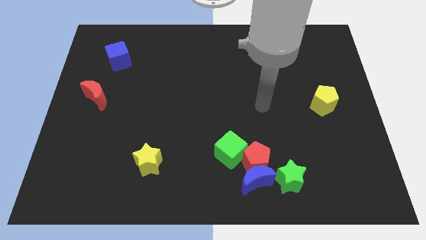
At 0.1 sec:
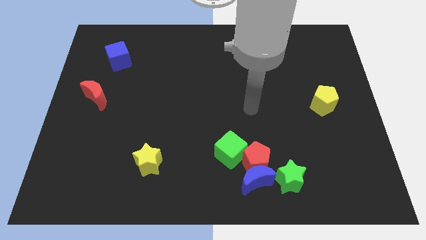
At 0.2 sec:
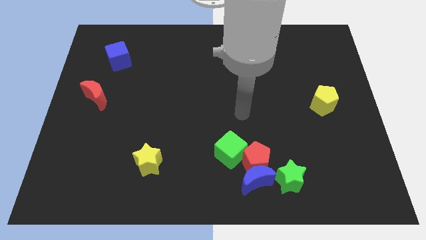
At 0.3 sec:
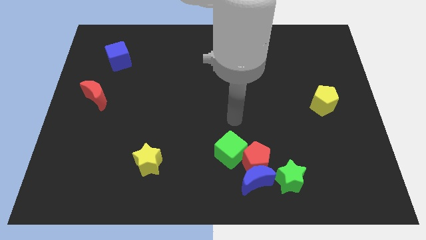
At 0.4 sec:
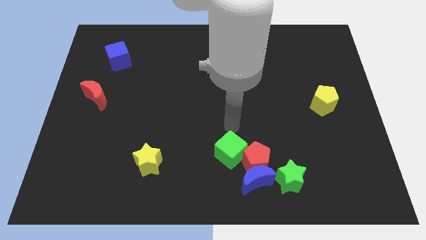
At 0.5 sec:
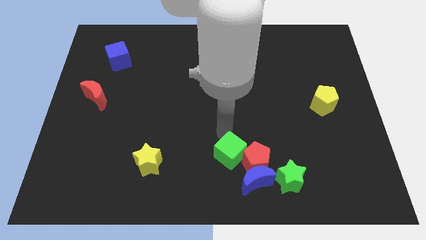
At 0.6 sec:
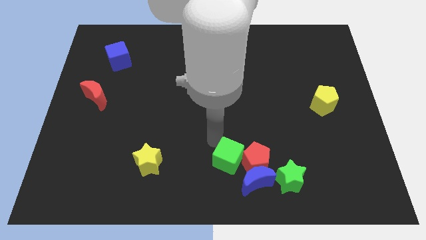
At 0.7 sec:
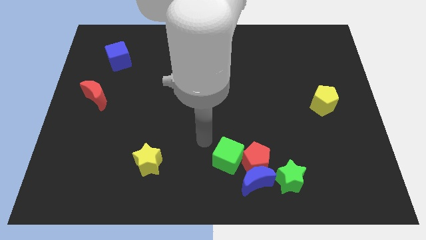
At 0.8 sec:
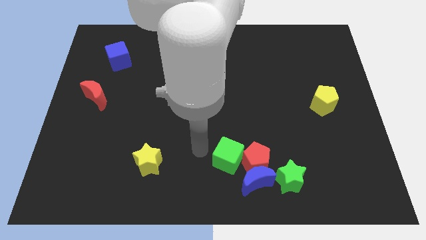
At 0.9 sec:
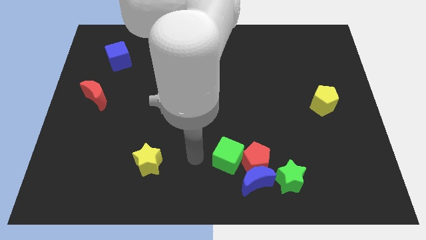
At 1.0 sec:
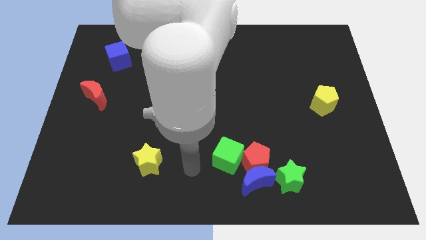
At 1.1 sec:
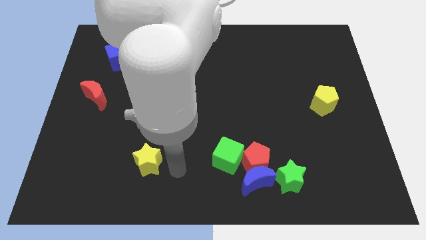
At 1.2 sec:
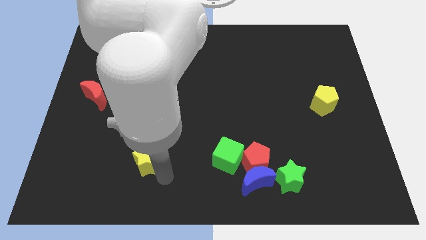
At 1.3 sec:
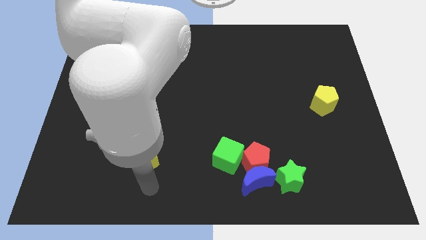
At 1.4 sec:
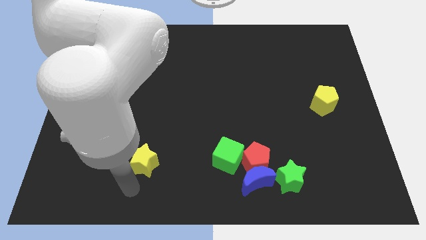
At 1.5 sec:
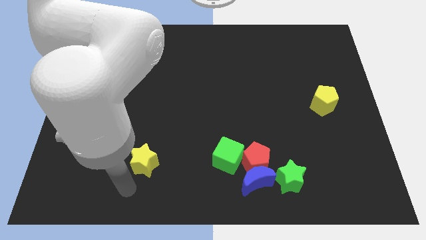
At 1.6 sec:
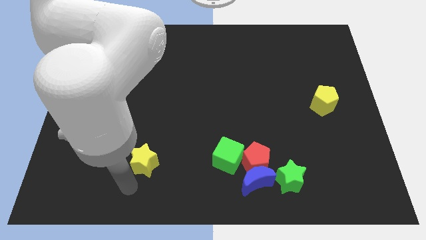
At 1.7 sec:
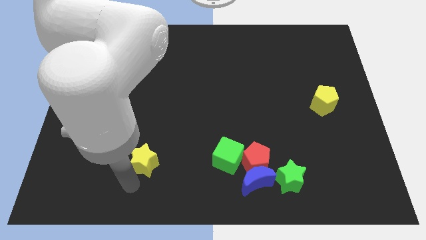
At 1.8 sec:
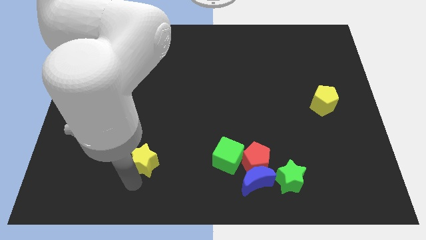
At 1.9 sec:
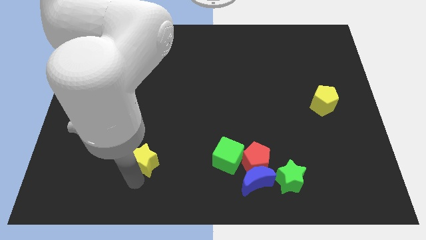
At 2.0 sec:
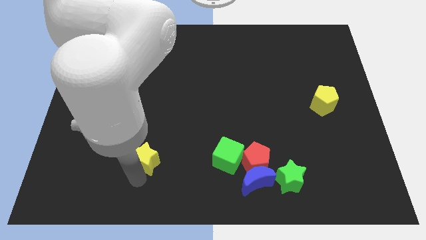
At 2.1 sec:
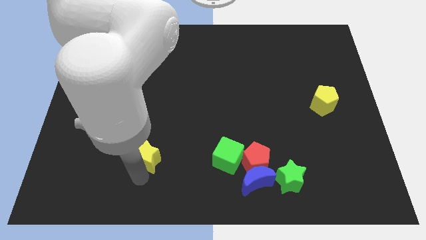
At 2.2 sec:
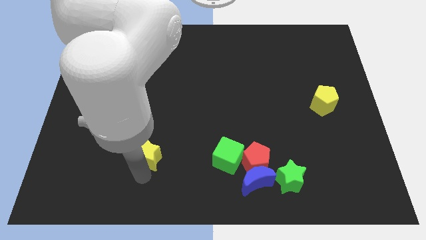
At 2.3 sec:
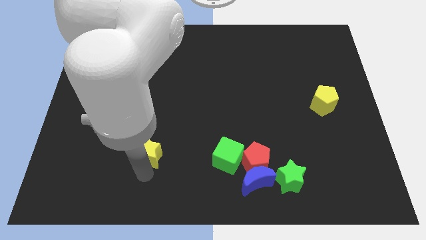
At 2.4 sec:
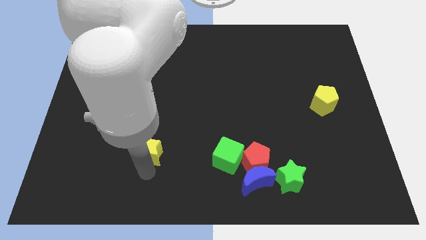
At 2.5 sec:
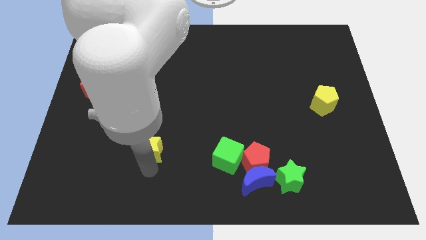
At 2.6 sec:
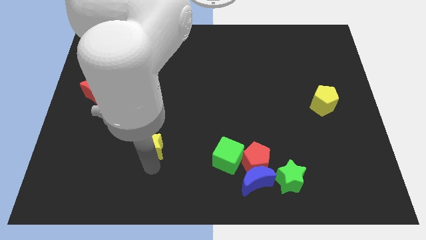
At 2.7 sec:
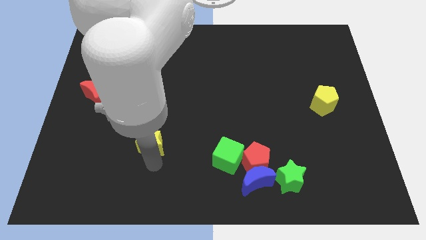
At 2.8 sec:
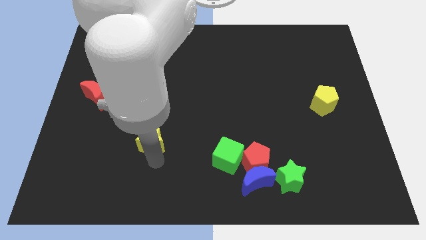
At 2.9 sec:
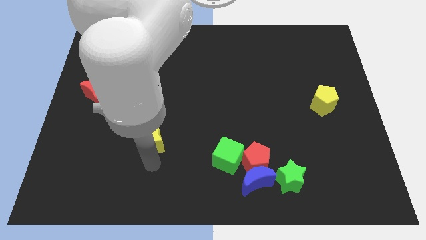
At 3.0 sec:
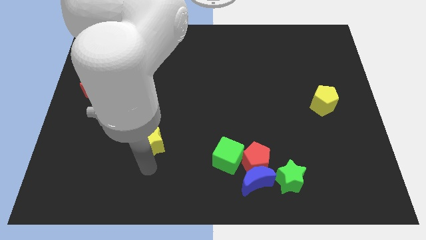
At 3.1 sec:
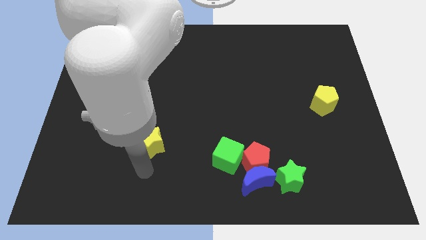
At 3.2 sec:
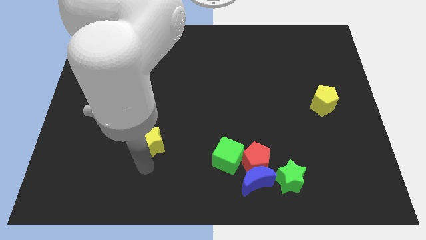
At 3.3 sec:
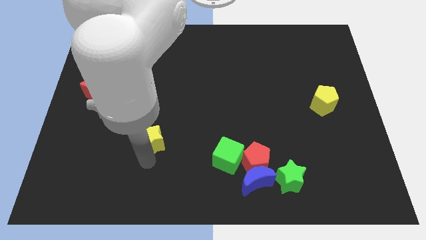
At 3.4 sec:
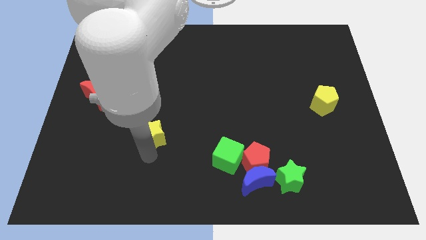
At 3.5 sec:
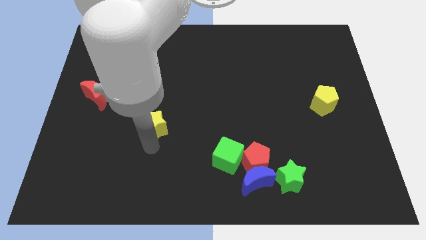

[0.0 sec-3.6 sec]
push the yellow star upwards a little bit

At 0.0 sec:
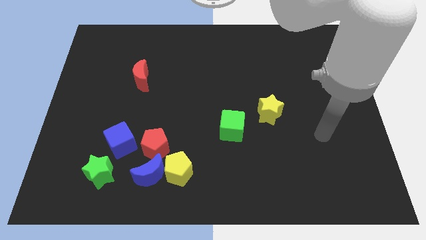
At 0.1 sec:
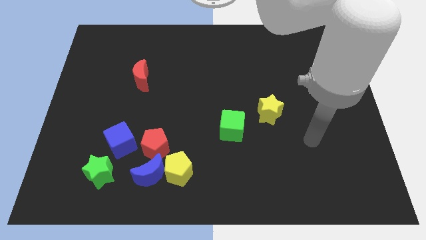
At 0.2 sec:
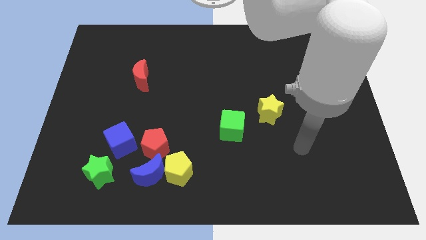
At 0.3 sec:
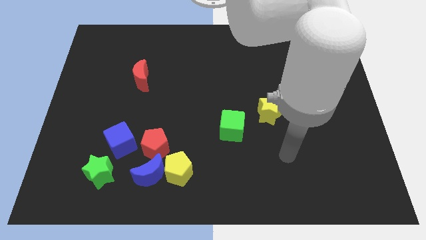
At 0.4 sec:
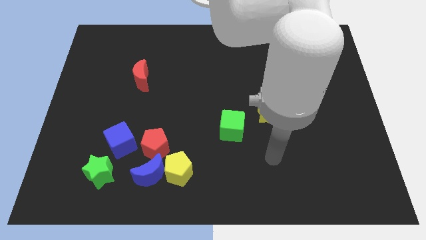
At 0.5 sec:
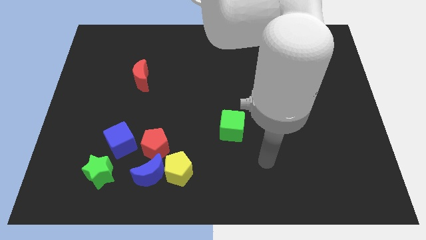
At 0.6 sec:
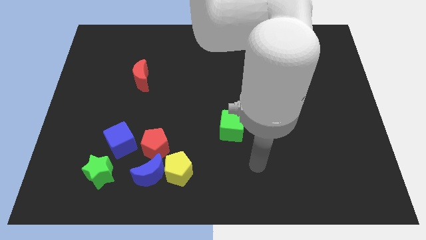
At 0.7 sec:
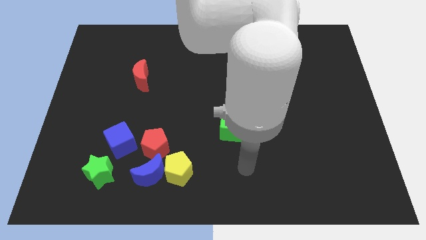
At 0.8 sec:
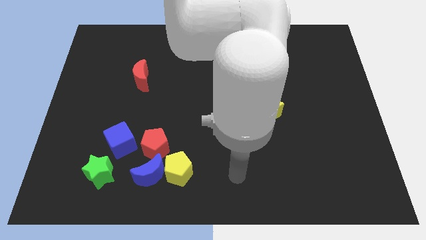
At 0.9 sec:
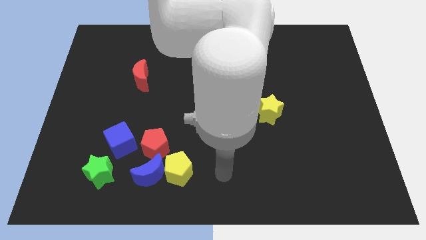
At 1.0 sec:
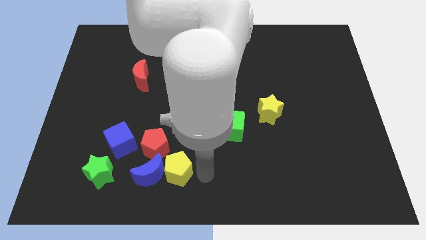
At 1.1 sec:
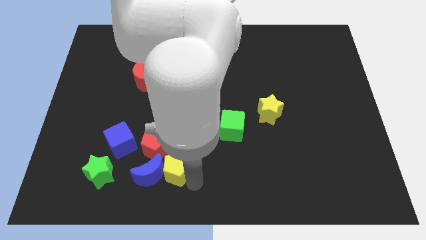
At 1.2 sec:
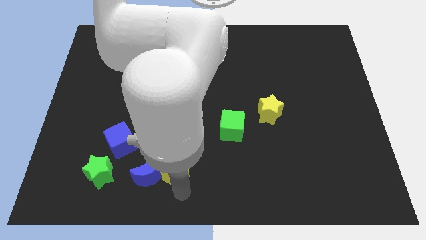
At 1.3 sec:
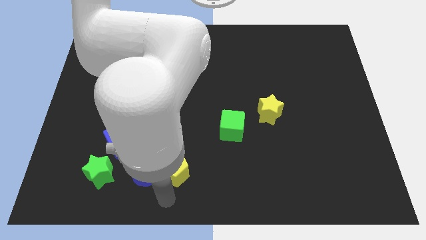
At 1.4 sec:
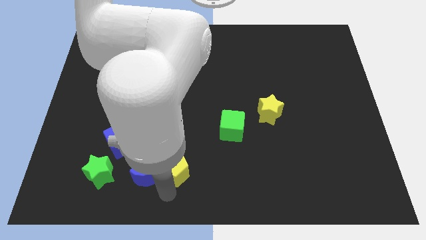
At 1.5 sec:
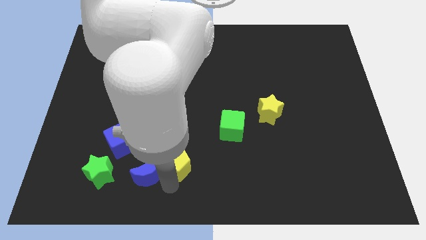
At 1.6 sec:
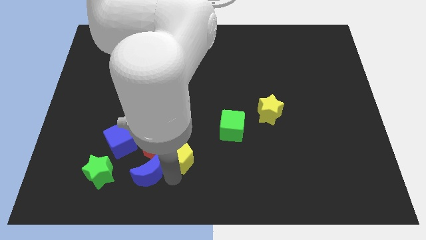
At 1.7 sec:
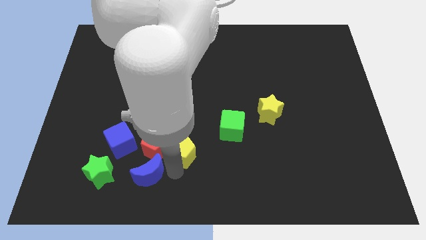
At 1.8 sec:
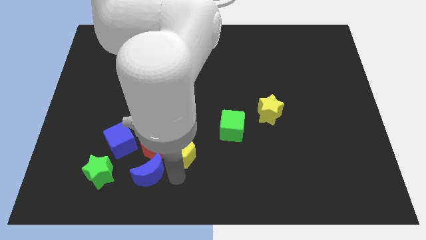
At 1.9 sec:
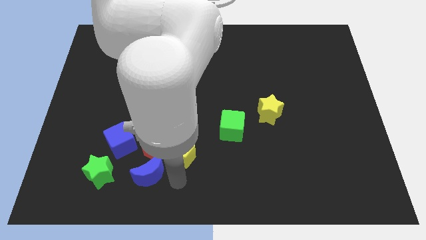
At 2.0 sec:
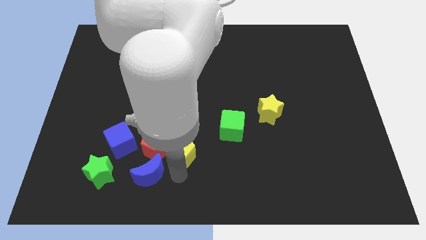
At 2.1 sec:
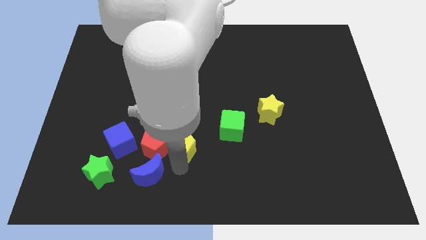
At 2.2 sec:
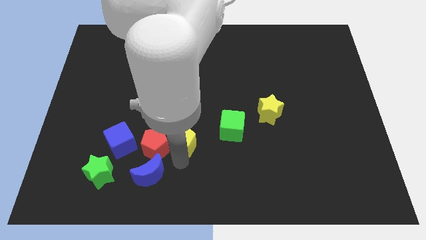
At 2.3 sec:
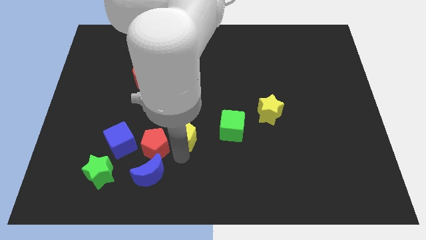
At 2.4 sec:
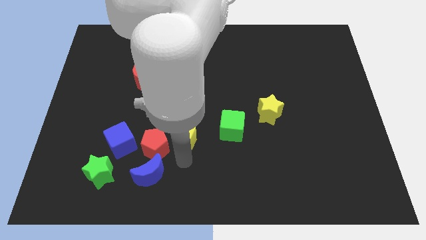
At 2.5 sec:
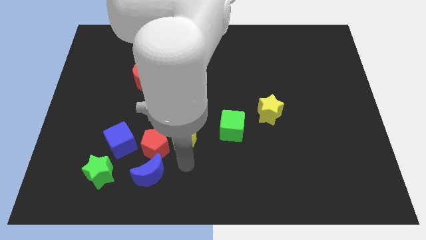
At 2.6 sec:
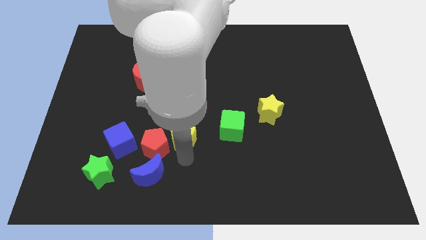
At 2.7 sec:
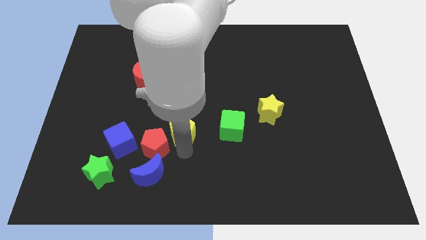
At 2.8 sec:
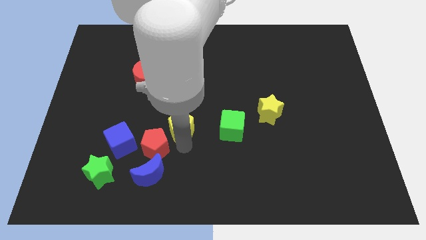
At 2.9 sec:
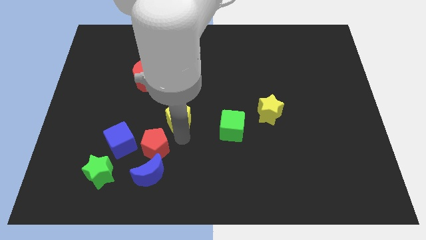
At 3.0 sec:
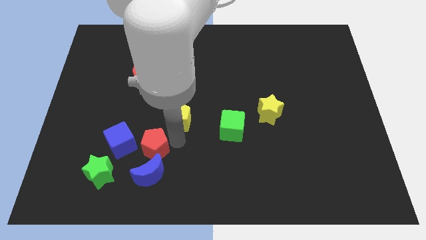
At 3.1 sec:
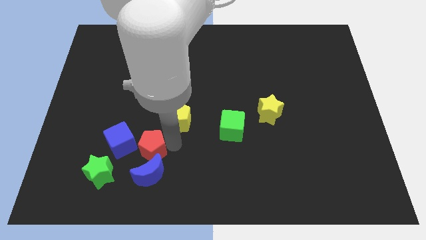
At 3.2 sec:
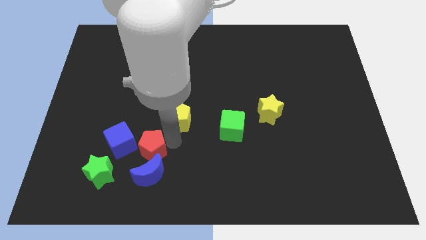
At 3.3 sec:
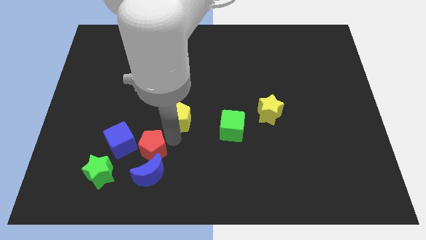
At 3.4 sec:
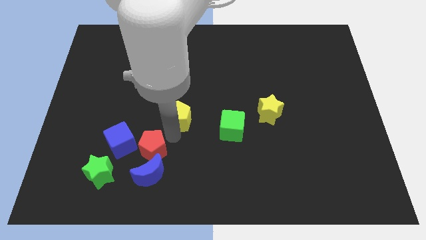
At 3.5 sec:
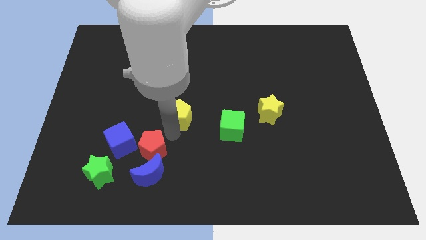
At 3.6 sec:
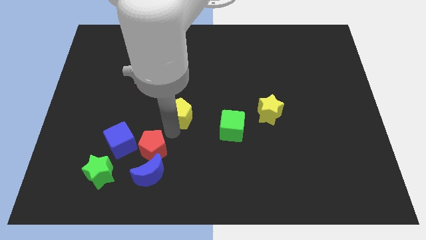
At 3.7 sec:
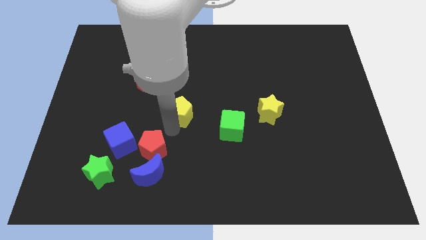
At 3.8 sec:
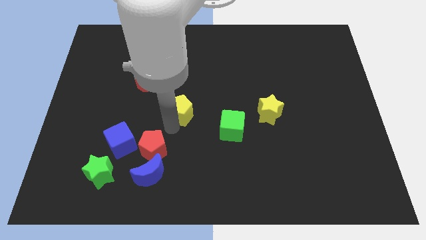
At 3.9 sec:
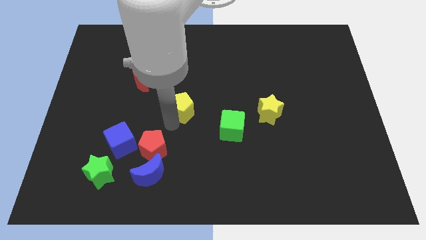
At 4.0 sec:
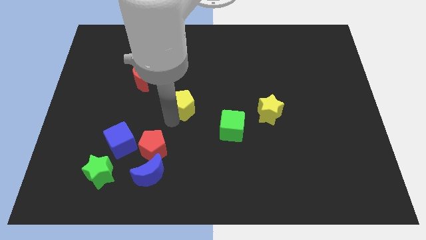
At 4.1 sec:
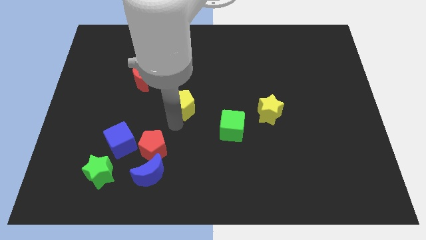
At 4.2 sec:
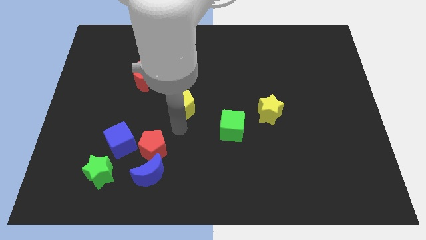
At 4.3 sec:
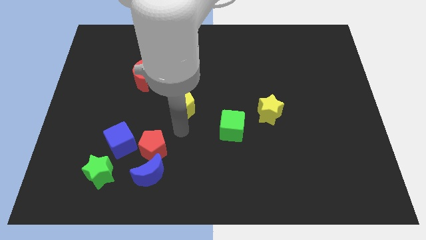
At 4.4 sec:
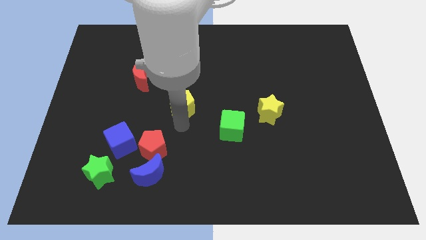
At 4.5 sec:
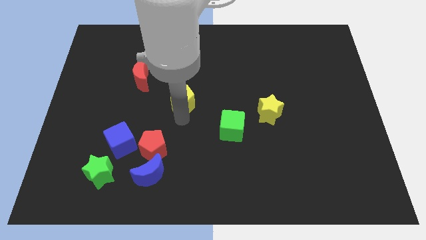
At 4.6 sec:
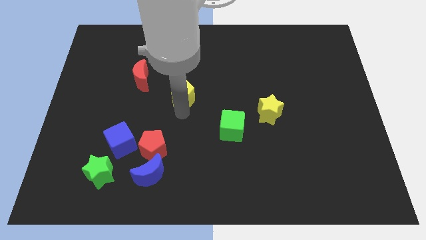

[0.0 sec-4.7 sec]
slide the yellow pentagon up
